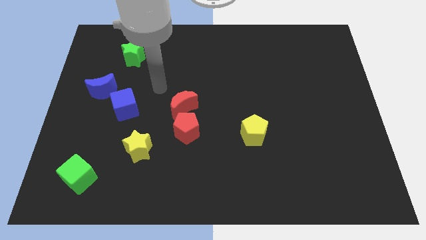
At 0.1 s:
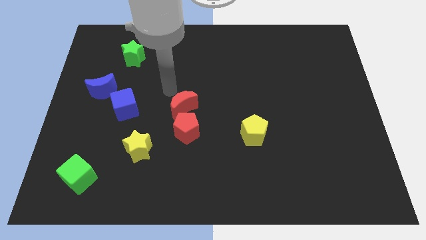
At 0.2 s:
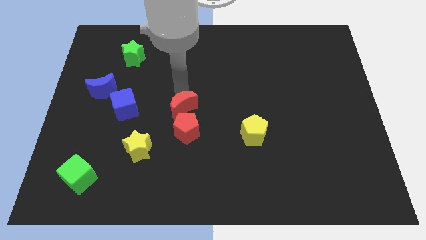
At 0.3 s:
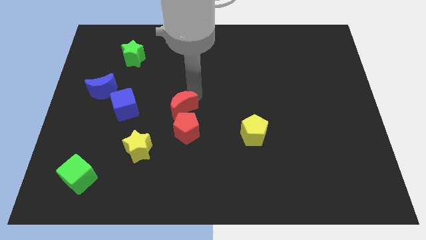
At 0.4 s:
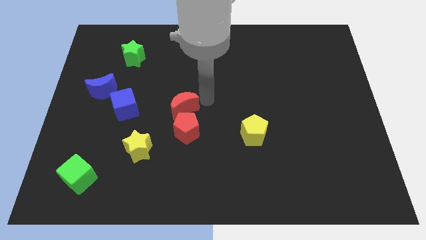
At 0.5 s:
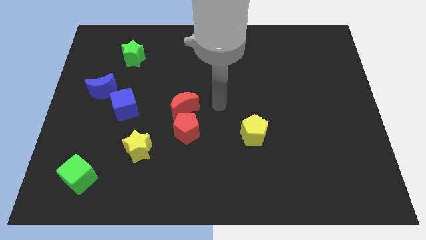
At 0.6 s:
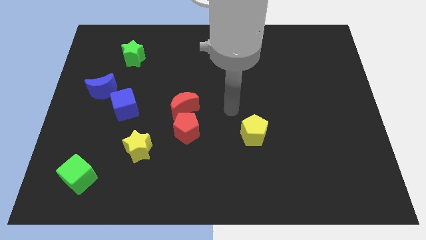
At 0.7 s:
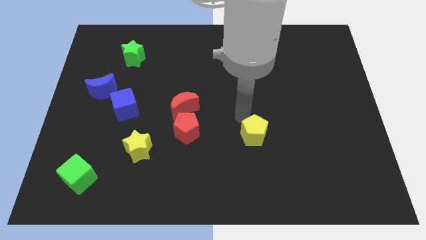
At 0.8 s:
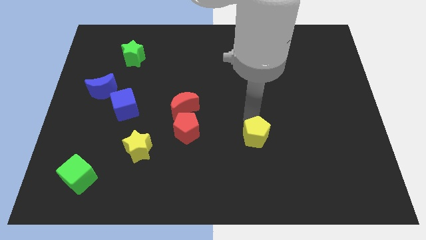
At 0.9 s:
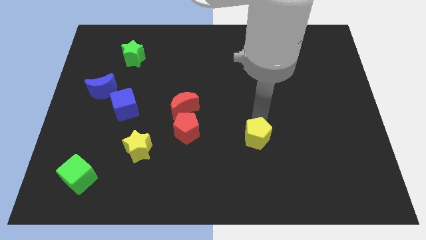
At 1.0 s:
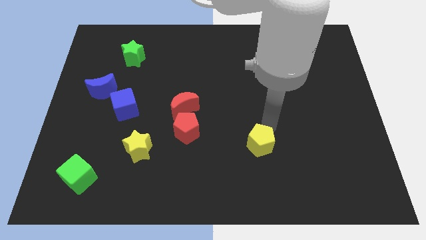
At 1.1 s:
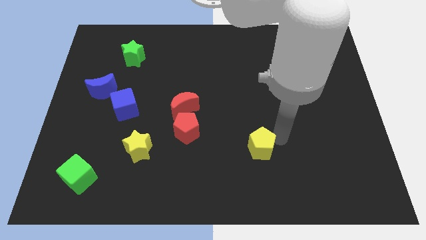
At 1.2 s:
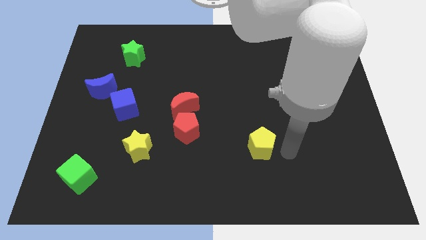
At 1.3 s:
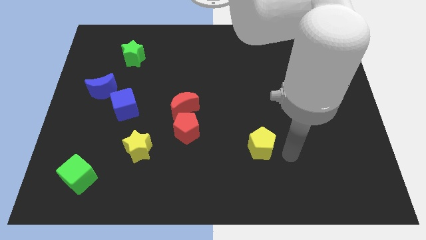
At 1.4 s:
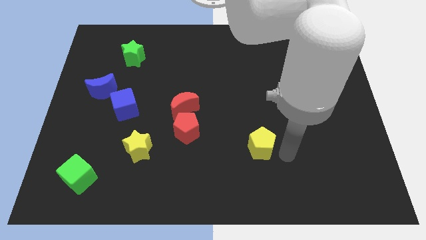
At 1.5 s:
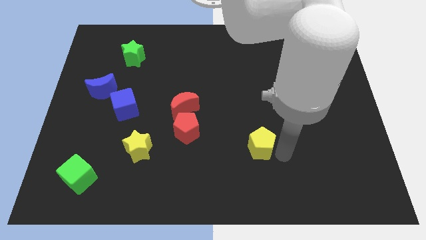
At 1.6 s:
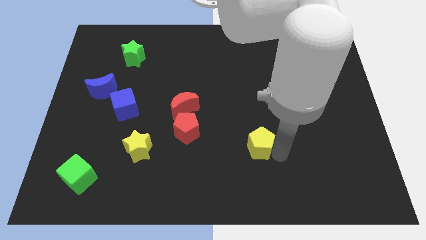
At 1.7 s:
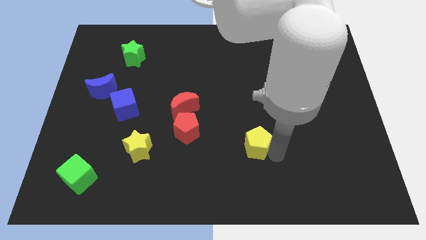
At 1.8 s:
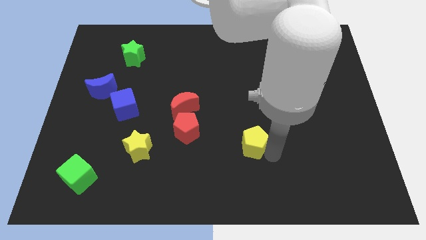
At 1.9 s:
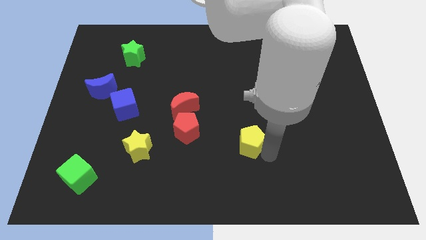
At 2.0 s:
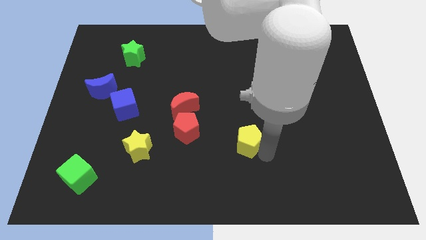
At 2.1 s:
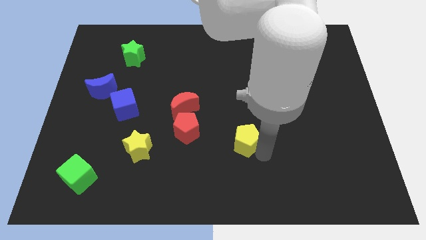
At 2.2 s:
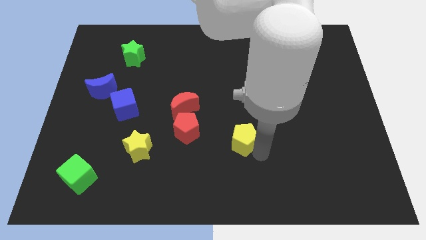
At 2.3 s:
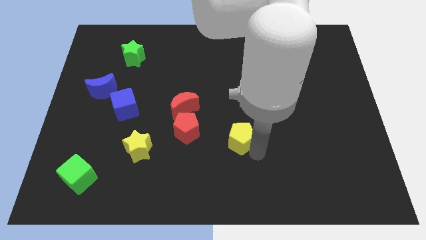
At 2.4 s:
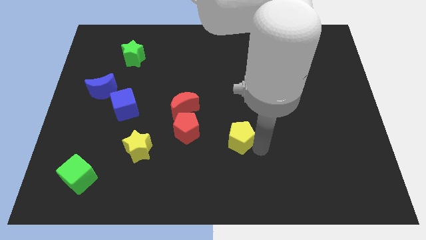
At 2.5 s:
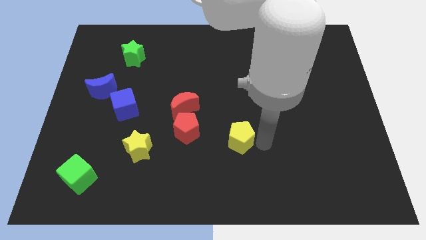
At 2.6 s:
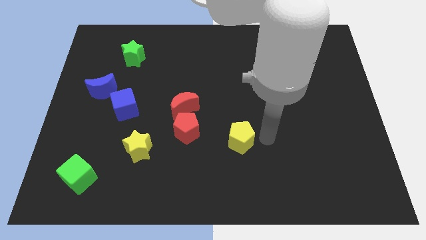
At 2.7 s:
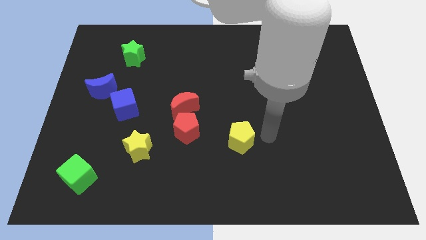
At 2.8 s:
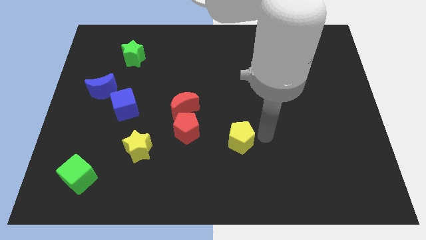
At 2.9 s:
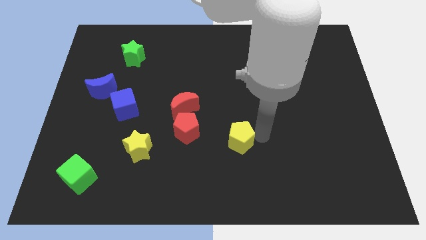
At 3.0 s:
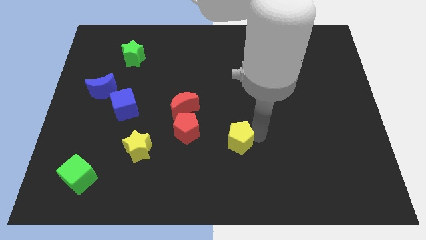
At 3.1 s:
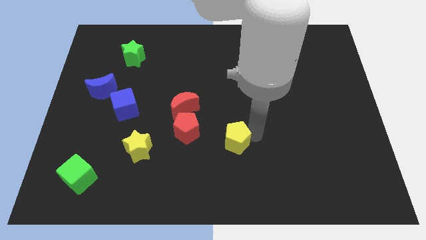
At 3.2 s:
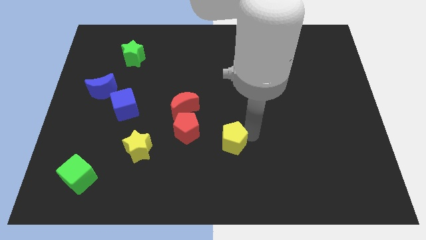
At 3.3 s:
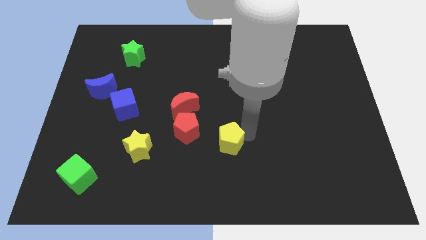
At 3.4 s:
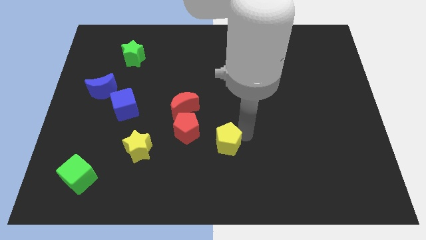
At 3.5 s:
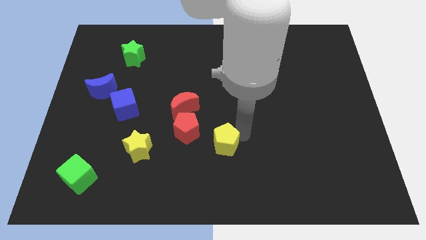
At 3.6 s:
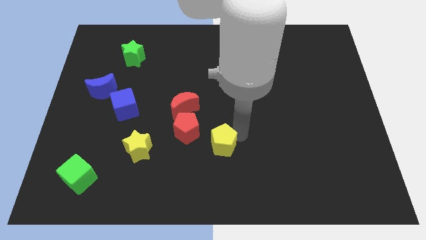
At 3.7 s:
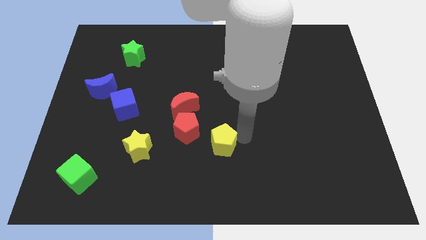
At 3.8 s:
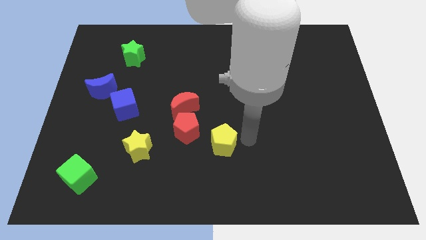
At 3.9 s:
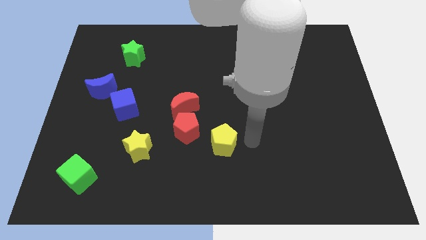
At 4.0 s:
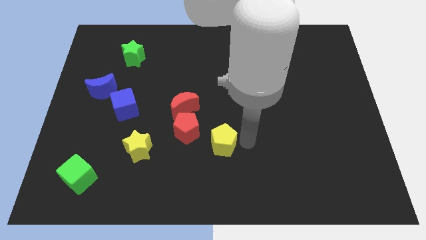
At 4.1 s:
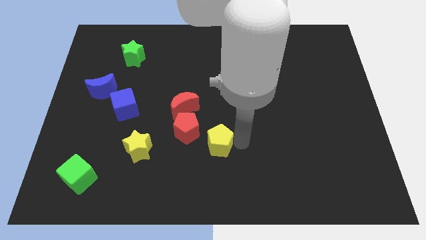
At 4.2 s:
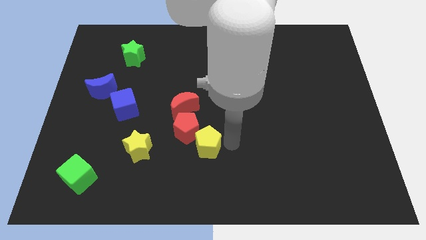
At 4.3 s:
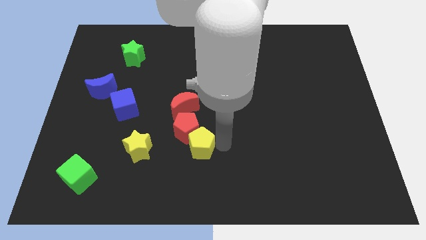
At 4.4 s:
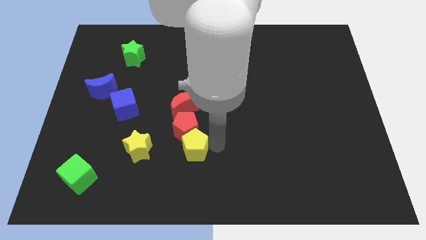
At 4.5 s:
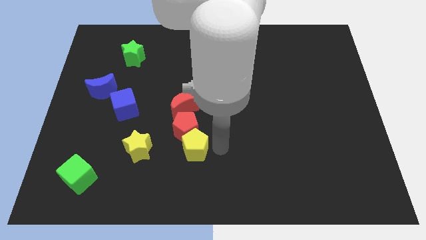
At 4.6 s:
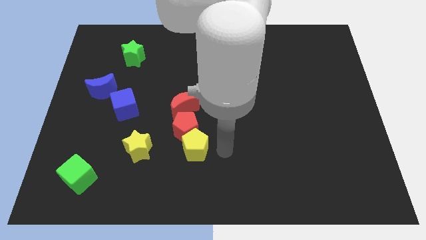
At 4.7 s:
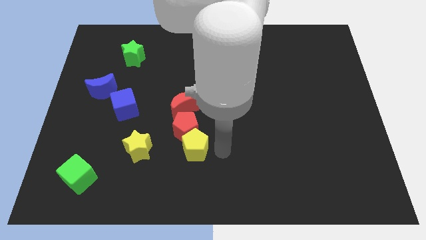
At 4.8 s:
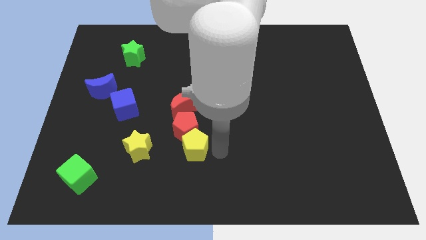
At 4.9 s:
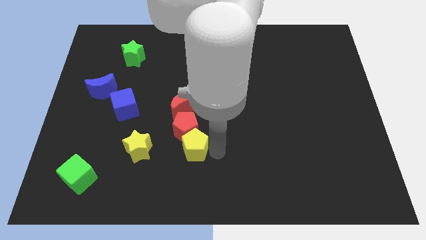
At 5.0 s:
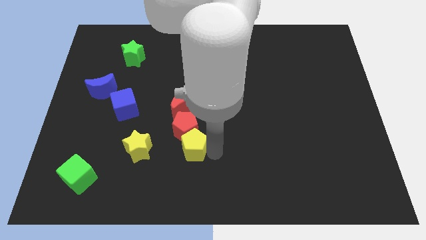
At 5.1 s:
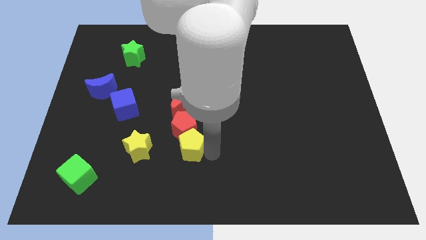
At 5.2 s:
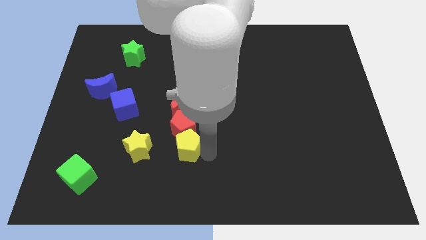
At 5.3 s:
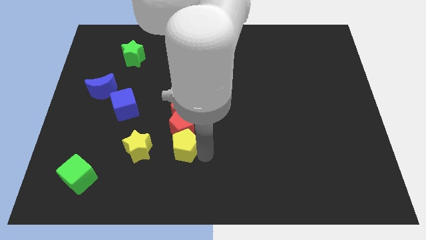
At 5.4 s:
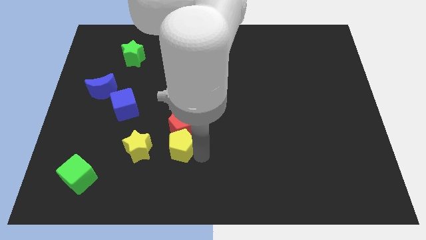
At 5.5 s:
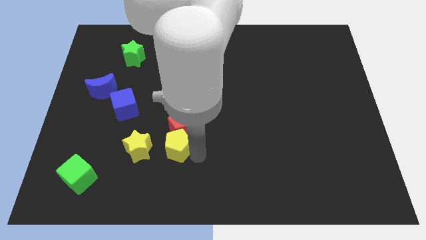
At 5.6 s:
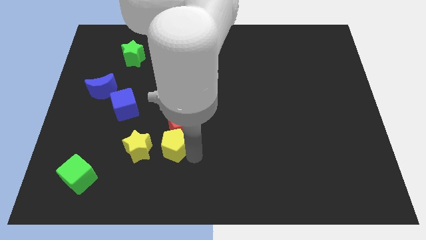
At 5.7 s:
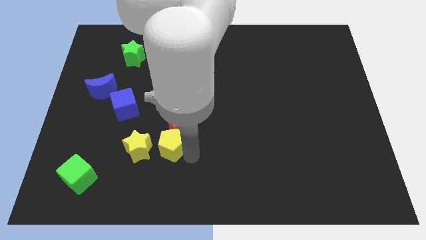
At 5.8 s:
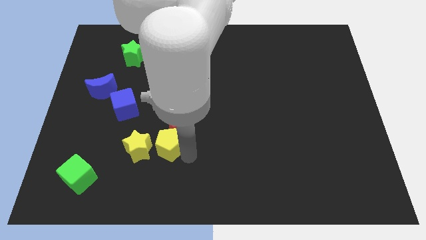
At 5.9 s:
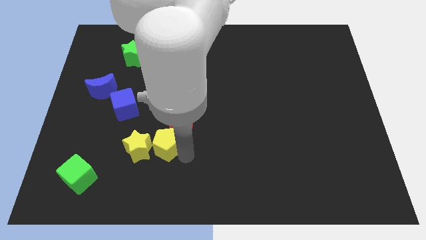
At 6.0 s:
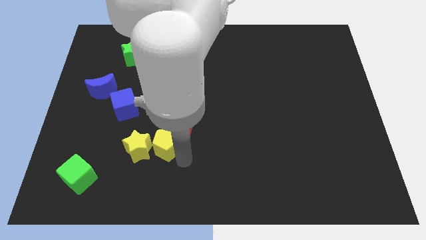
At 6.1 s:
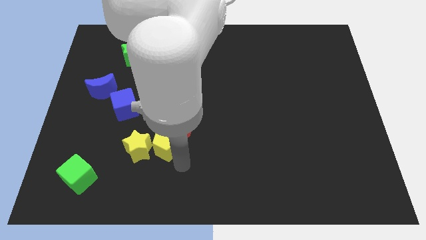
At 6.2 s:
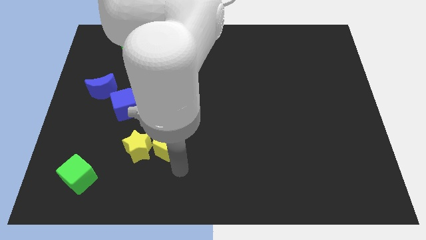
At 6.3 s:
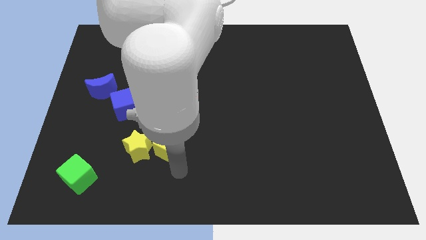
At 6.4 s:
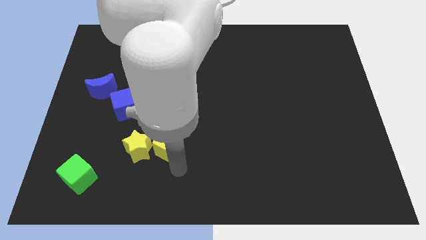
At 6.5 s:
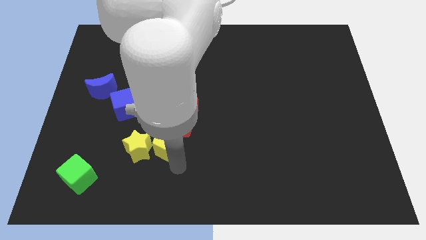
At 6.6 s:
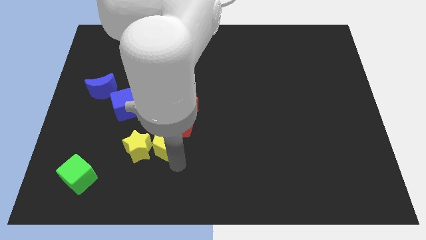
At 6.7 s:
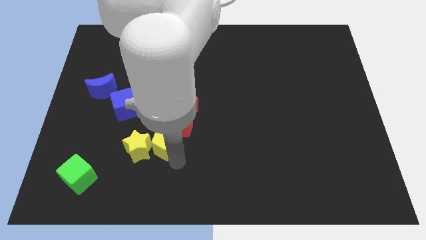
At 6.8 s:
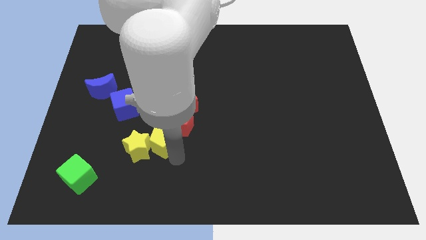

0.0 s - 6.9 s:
slide the yellow pentagon left

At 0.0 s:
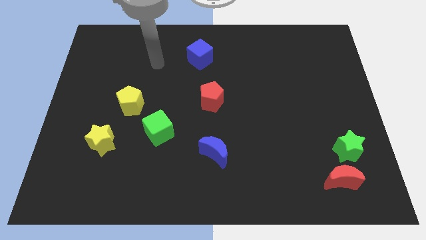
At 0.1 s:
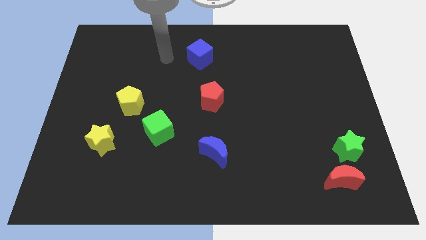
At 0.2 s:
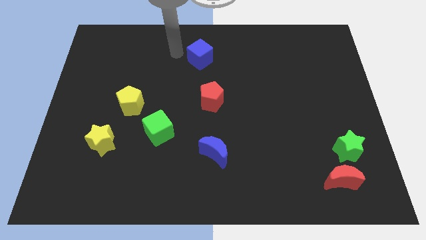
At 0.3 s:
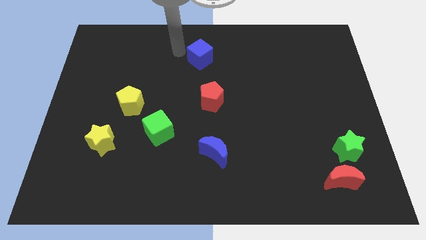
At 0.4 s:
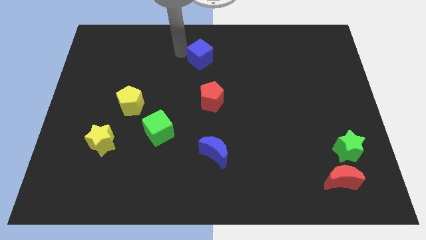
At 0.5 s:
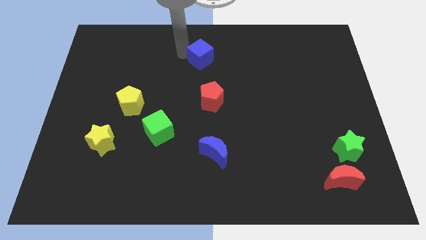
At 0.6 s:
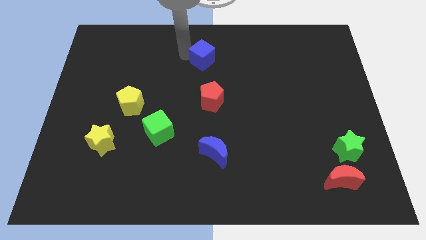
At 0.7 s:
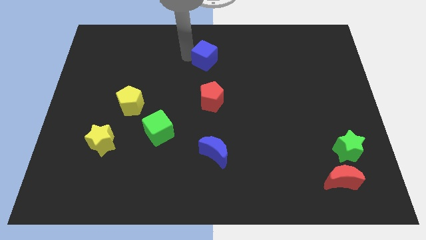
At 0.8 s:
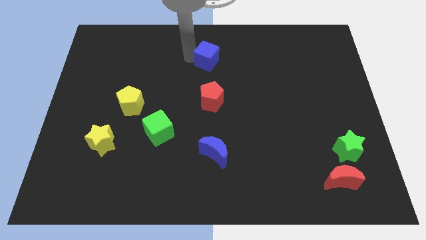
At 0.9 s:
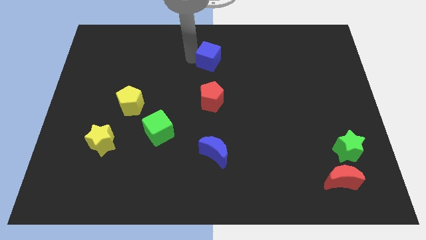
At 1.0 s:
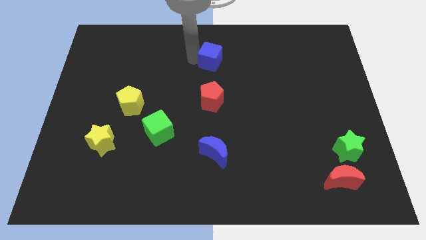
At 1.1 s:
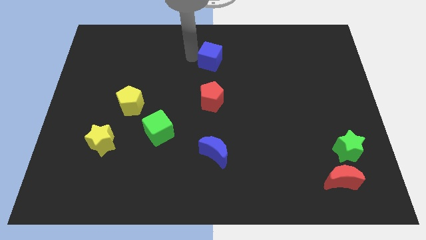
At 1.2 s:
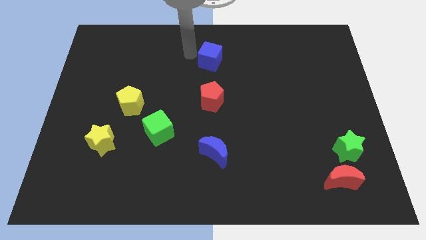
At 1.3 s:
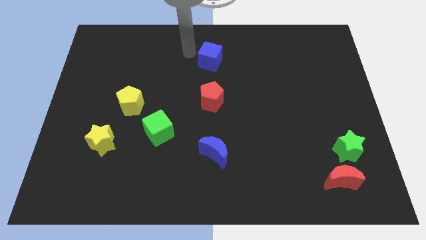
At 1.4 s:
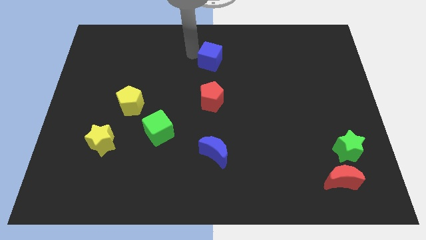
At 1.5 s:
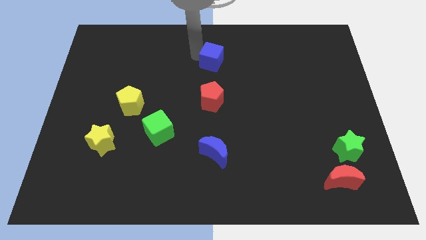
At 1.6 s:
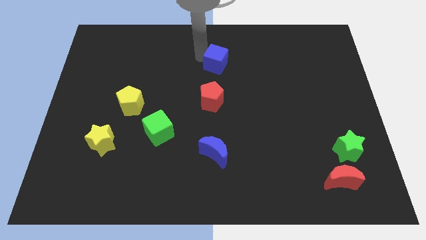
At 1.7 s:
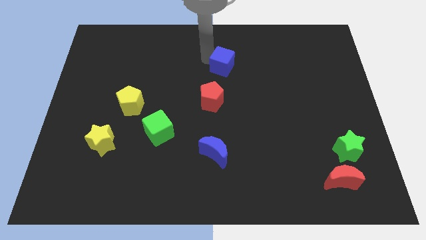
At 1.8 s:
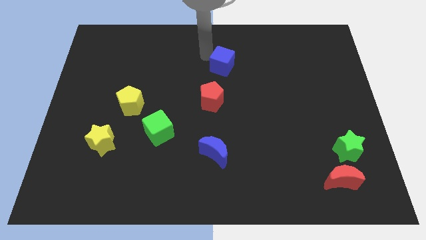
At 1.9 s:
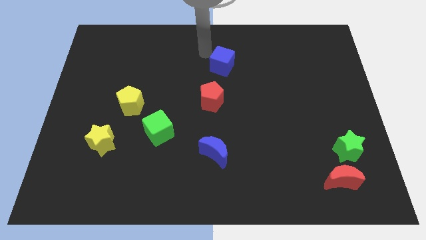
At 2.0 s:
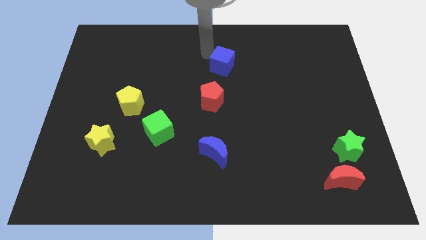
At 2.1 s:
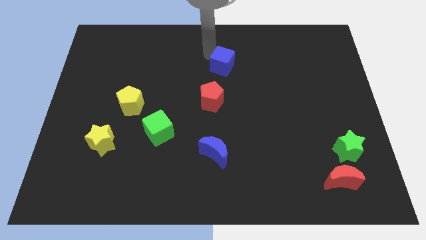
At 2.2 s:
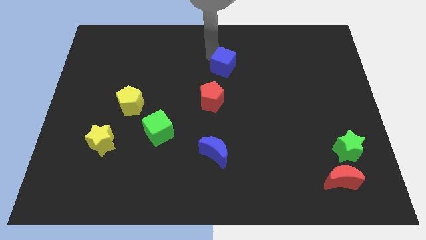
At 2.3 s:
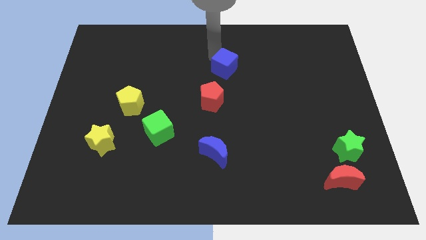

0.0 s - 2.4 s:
slide the blue cube diagonally downwards and right somewhat
